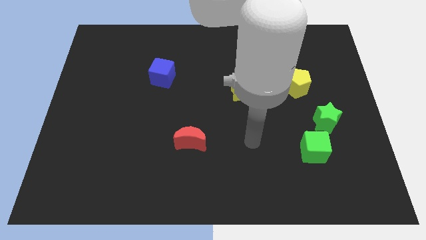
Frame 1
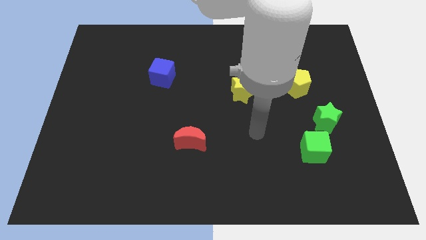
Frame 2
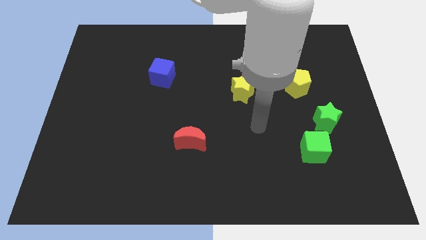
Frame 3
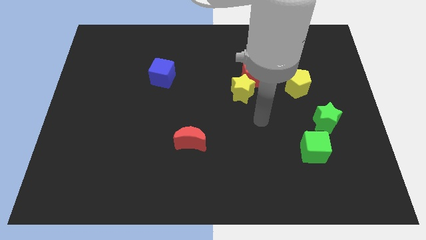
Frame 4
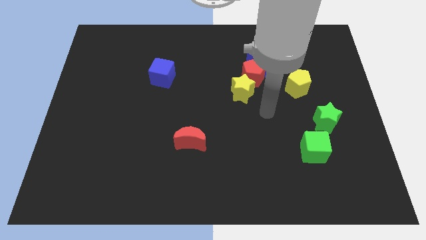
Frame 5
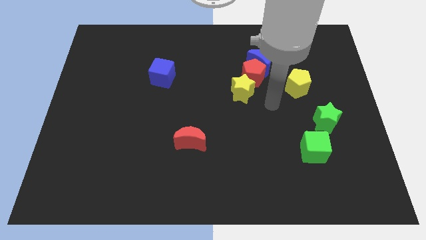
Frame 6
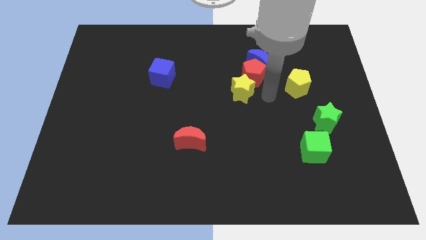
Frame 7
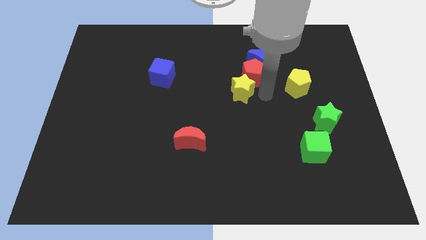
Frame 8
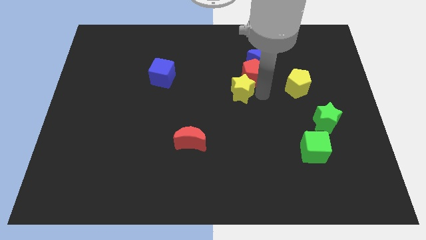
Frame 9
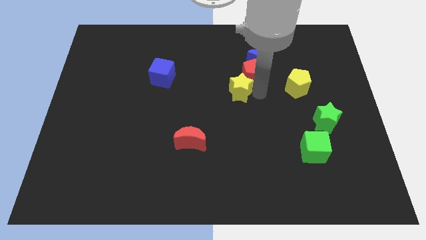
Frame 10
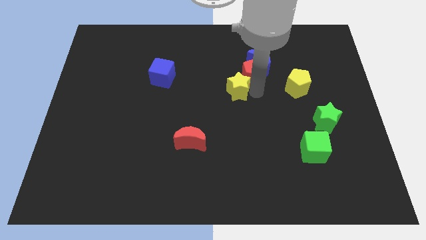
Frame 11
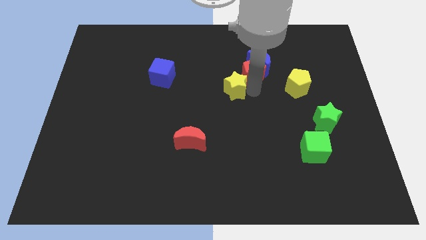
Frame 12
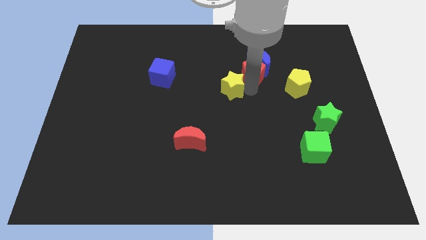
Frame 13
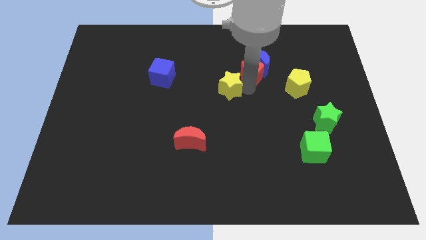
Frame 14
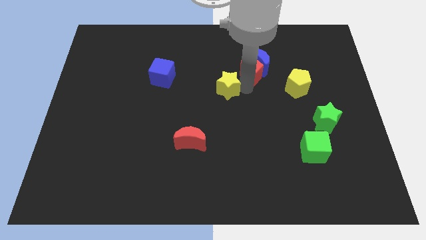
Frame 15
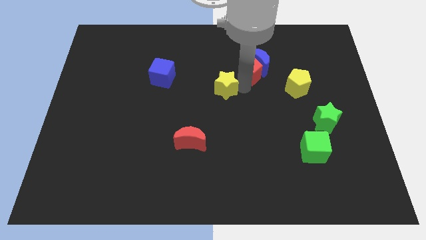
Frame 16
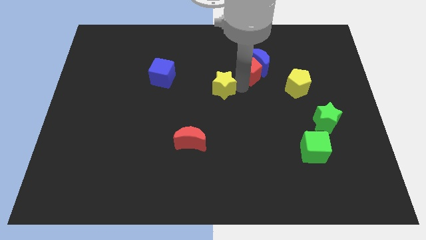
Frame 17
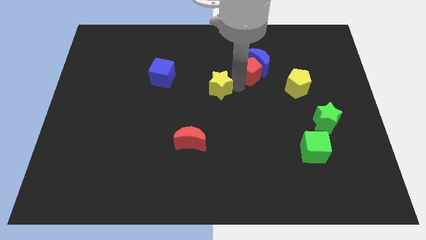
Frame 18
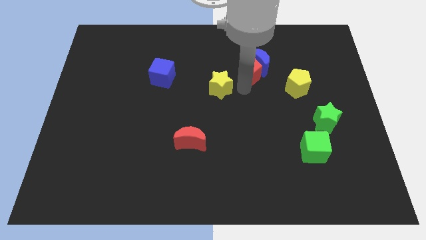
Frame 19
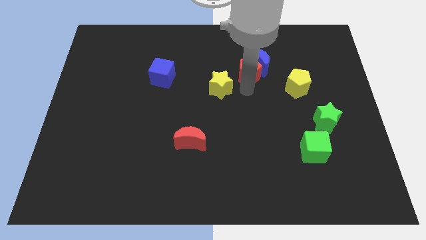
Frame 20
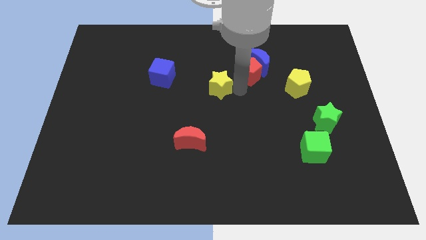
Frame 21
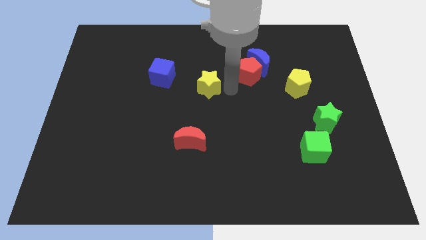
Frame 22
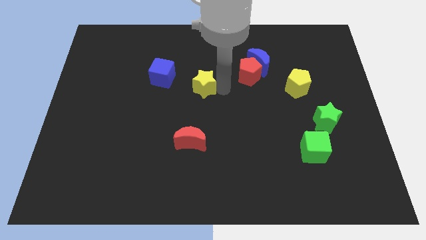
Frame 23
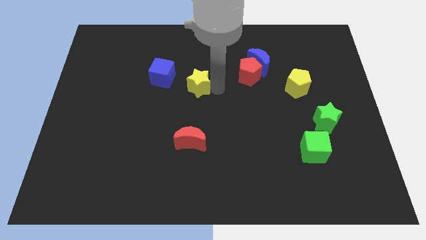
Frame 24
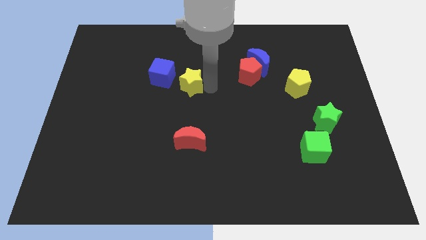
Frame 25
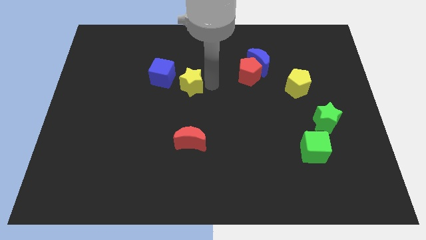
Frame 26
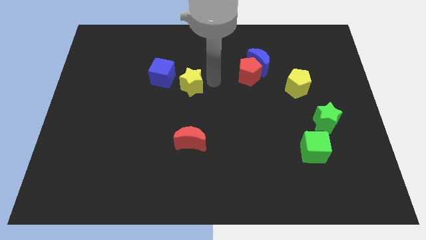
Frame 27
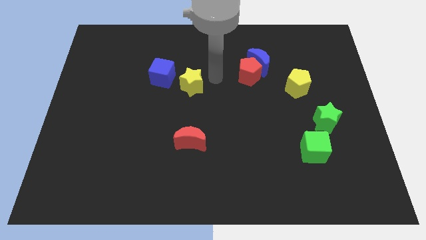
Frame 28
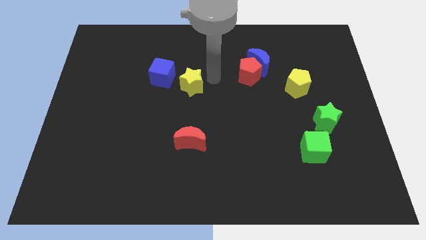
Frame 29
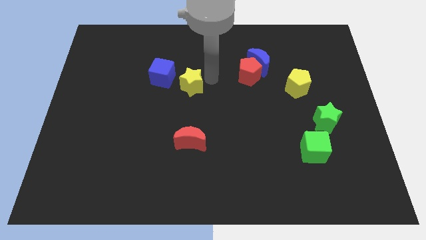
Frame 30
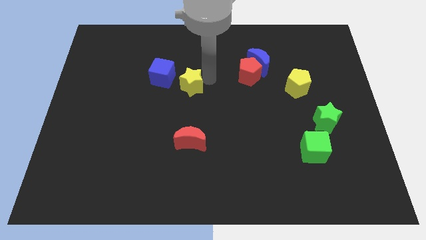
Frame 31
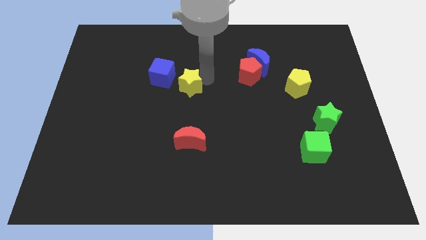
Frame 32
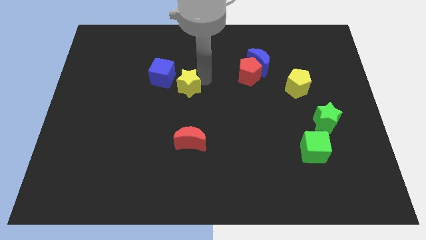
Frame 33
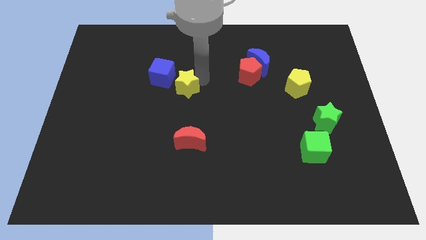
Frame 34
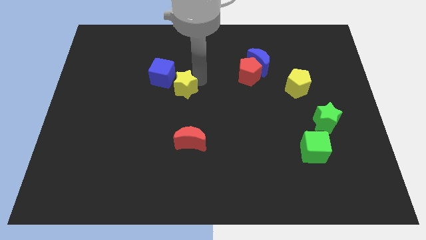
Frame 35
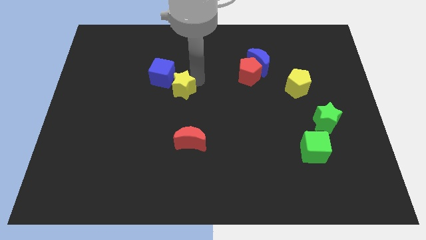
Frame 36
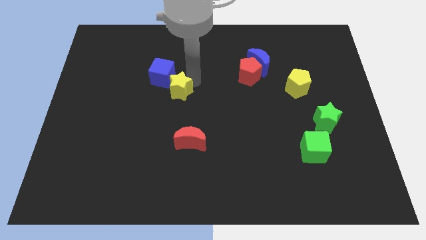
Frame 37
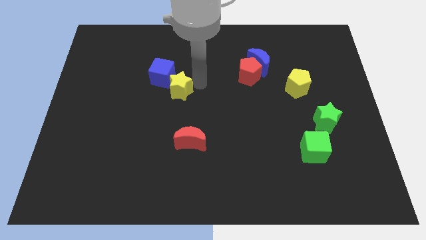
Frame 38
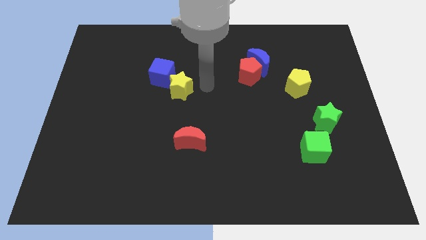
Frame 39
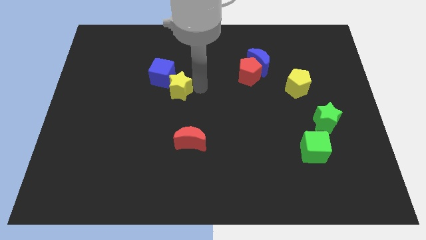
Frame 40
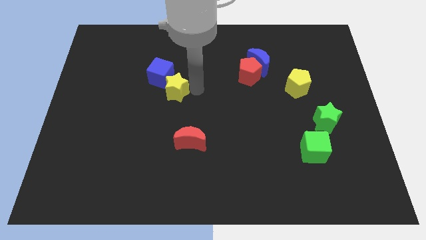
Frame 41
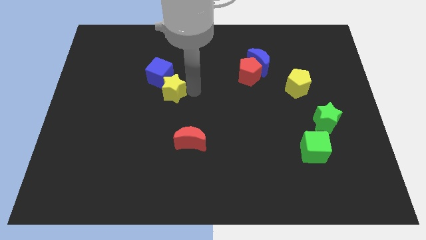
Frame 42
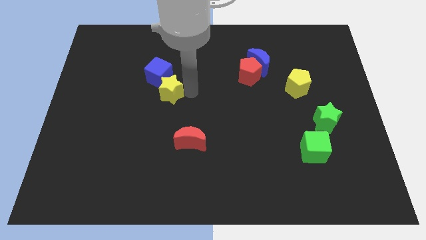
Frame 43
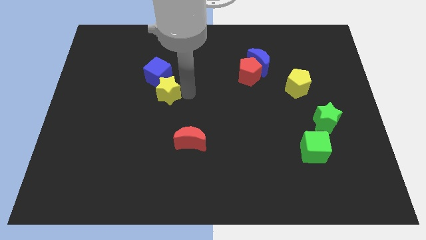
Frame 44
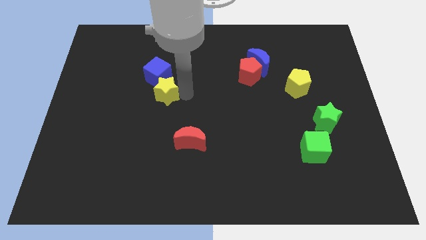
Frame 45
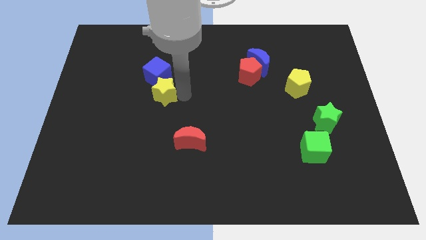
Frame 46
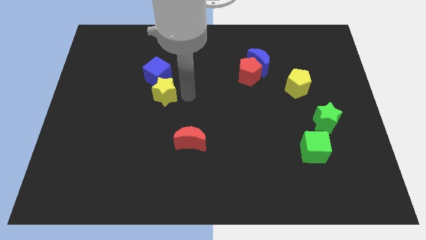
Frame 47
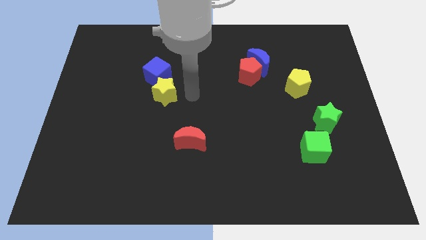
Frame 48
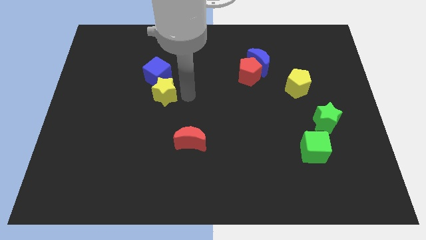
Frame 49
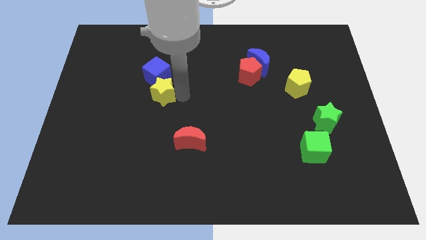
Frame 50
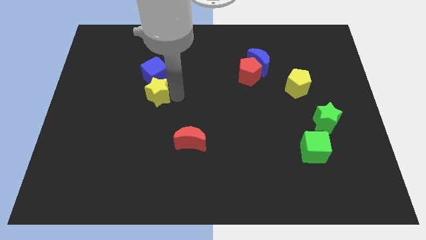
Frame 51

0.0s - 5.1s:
push the yellow star left

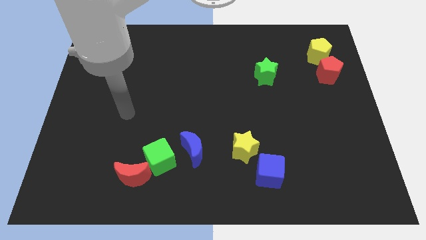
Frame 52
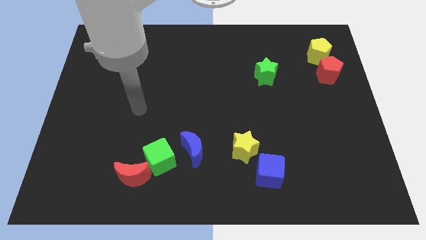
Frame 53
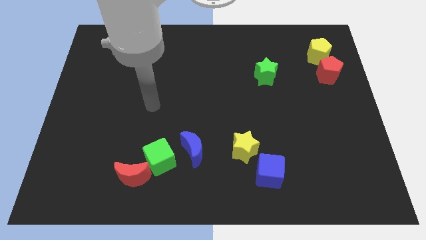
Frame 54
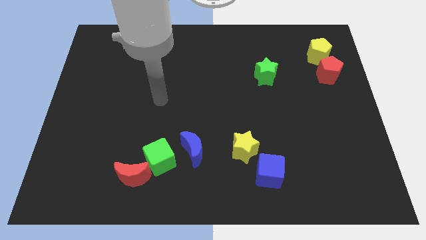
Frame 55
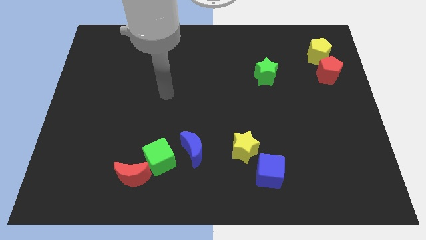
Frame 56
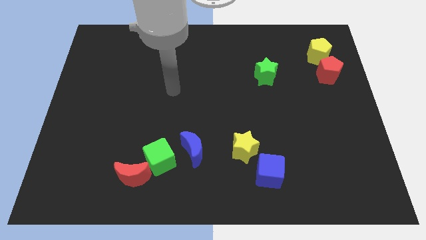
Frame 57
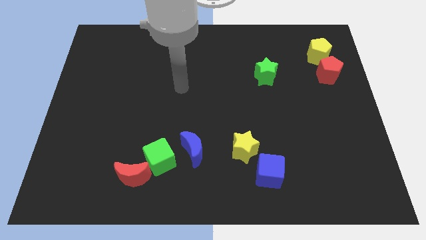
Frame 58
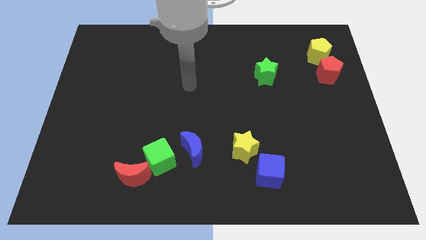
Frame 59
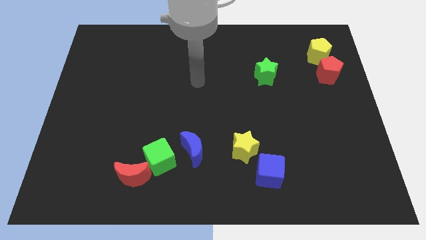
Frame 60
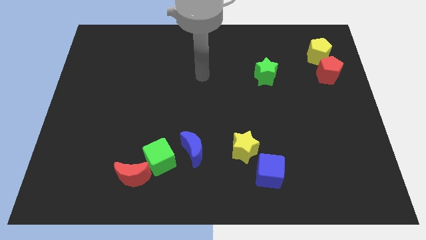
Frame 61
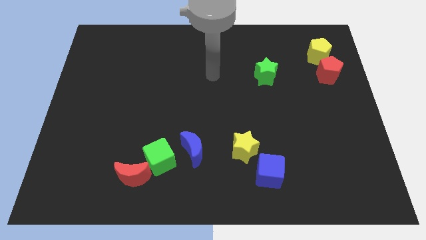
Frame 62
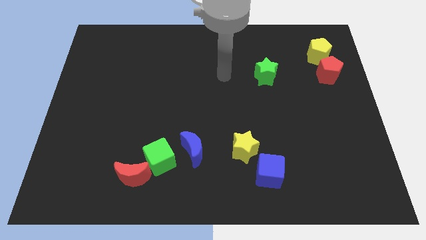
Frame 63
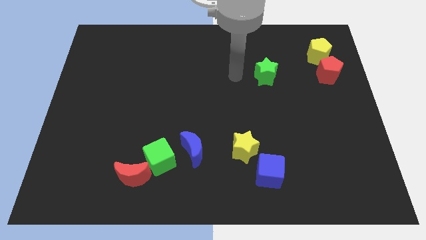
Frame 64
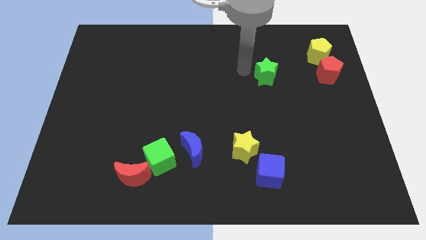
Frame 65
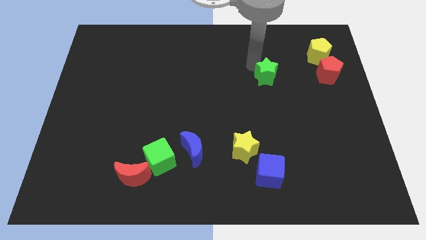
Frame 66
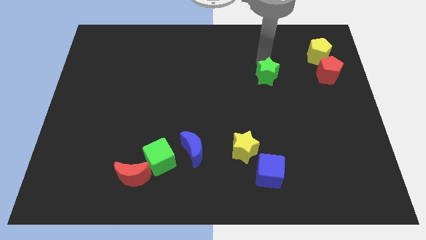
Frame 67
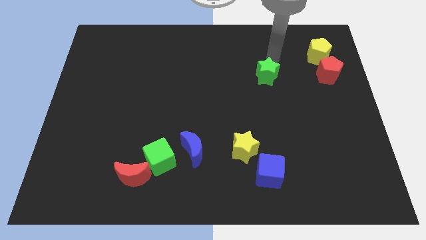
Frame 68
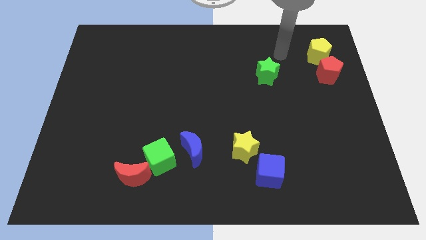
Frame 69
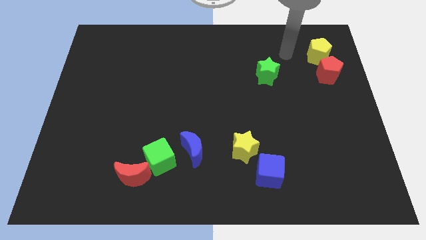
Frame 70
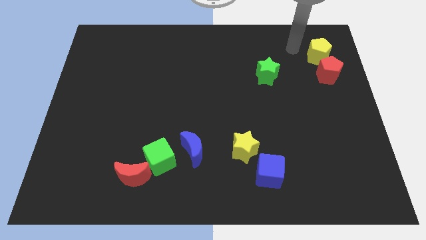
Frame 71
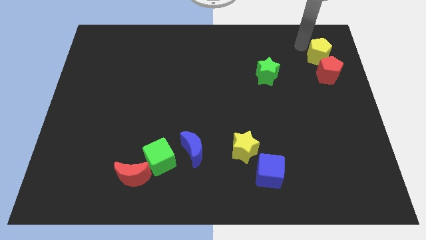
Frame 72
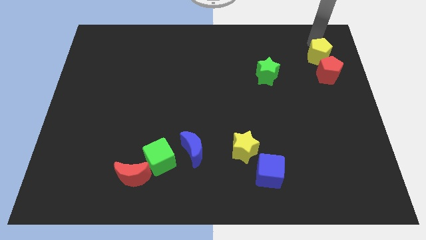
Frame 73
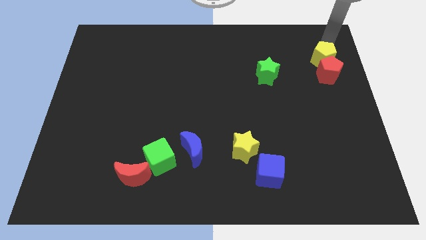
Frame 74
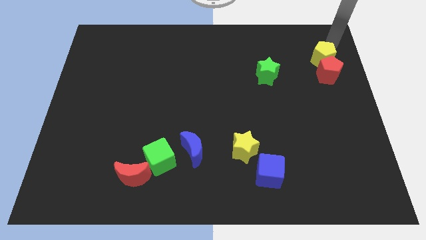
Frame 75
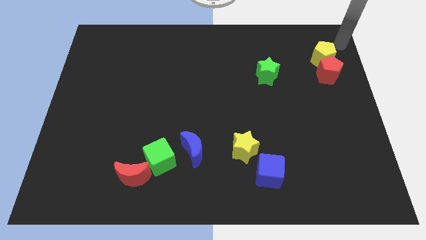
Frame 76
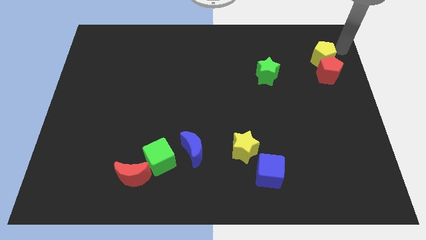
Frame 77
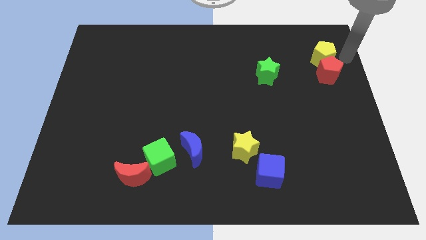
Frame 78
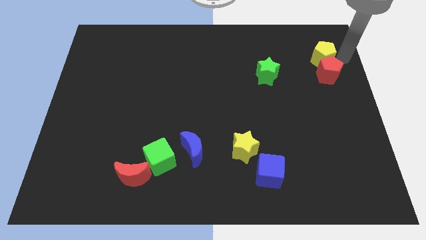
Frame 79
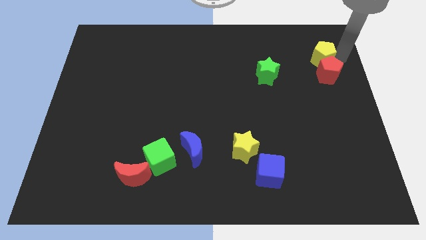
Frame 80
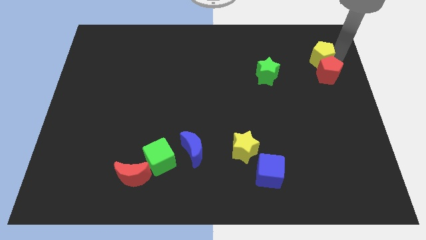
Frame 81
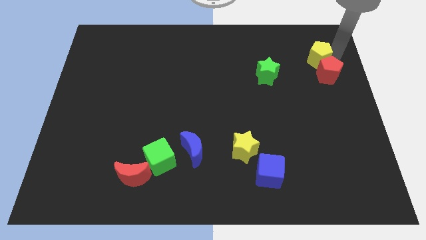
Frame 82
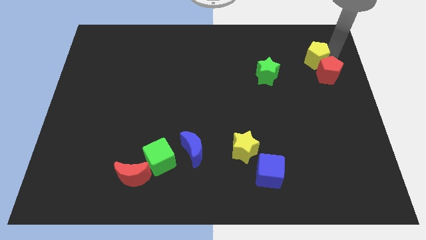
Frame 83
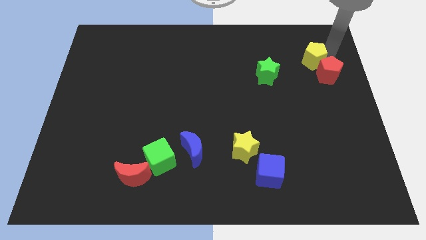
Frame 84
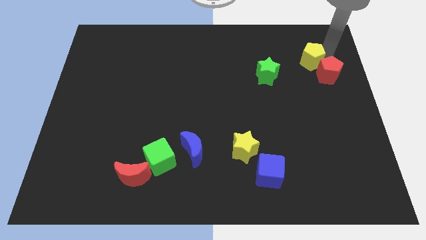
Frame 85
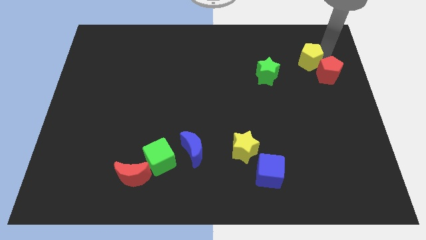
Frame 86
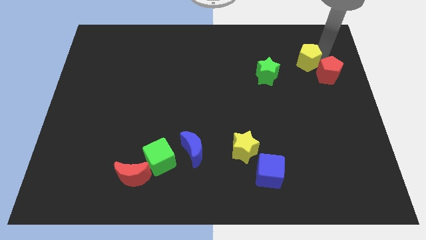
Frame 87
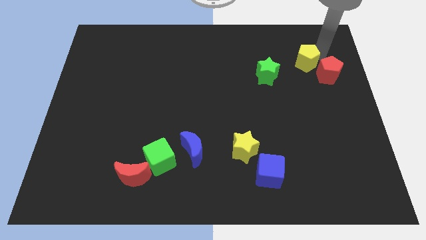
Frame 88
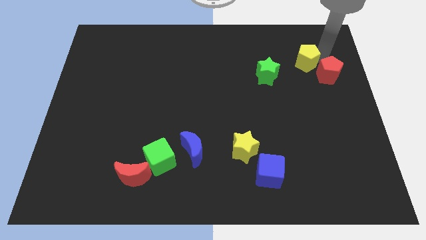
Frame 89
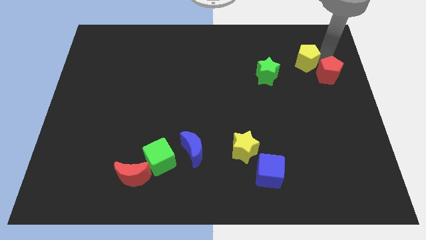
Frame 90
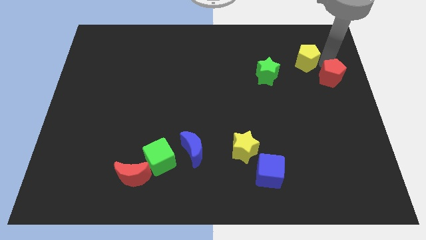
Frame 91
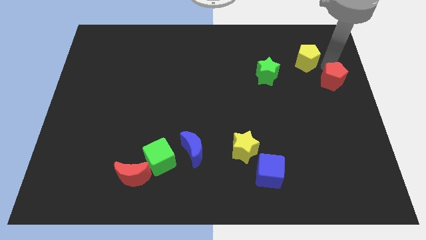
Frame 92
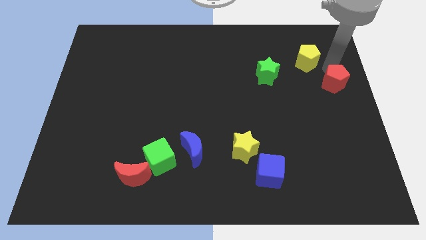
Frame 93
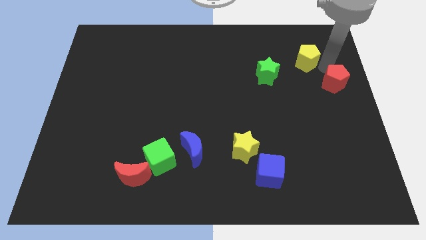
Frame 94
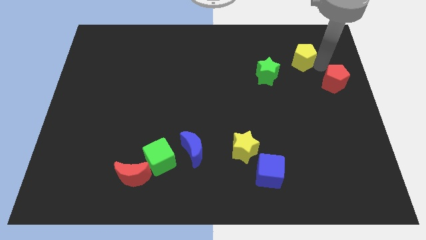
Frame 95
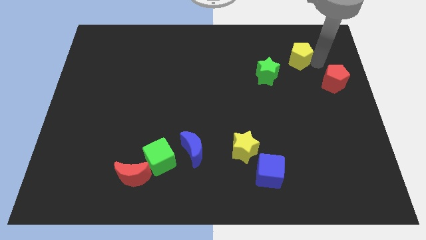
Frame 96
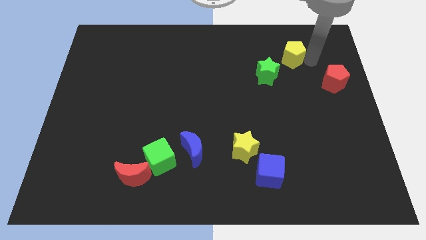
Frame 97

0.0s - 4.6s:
push the yellow pentagon a little to the left
